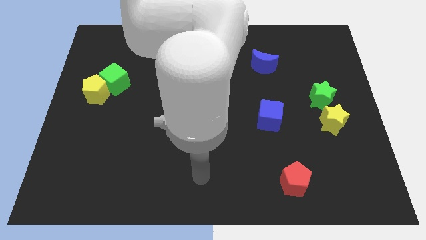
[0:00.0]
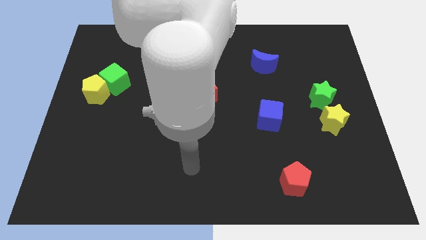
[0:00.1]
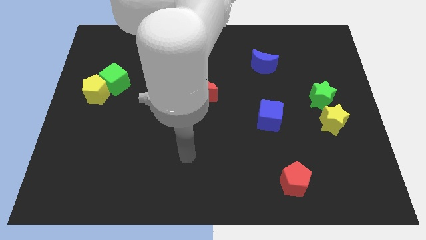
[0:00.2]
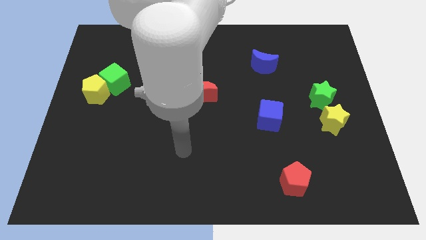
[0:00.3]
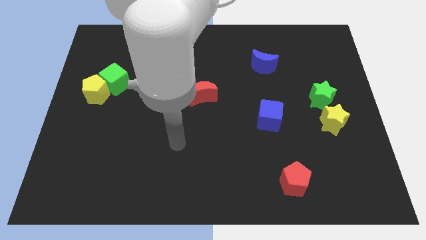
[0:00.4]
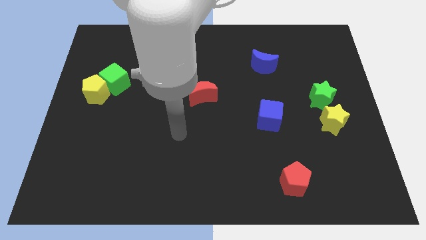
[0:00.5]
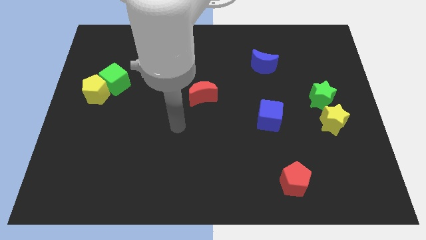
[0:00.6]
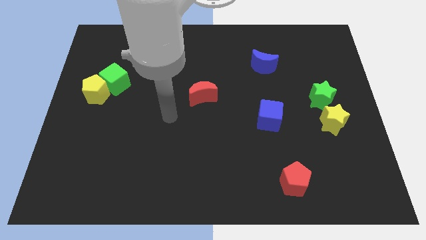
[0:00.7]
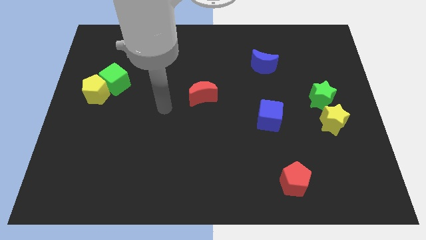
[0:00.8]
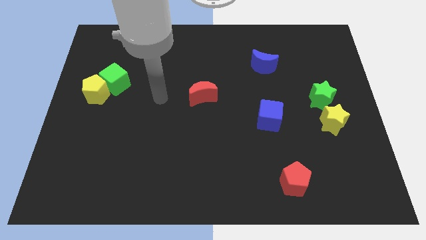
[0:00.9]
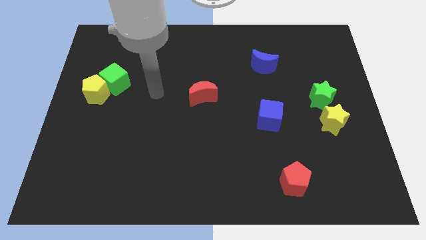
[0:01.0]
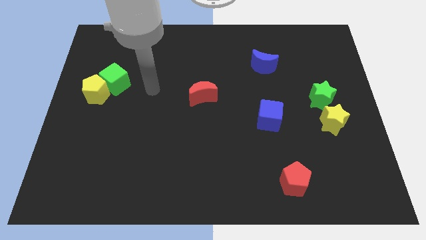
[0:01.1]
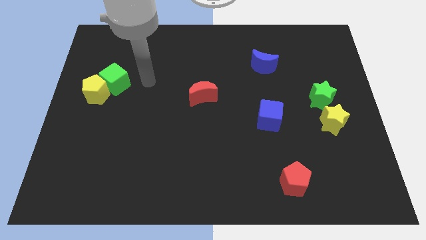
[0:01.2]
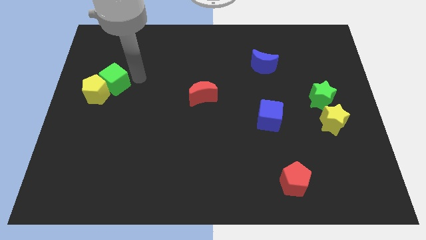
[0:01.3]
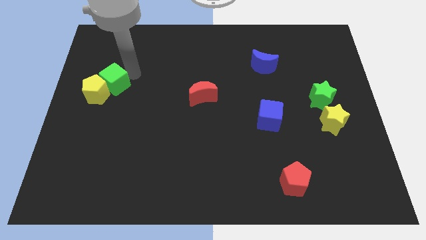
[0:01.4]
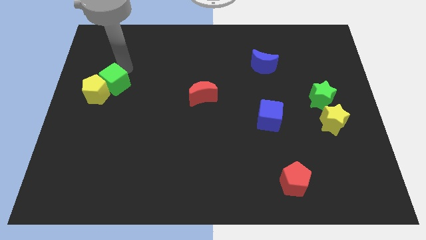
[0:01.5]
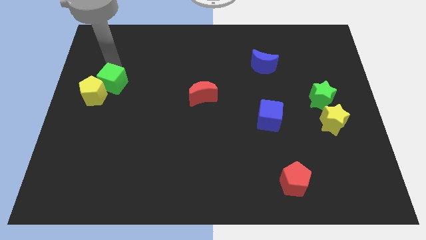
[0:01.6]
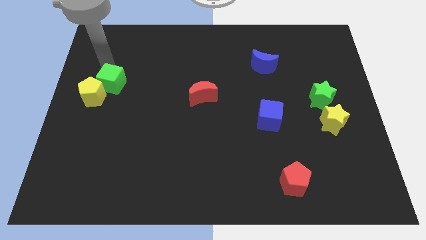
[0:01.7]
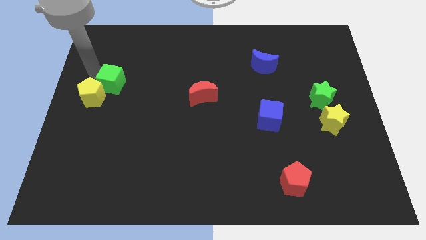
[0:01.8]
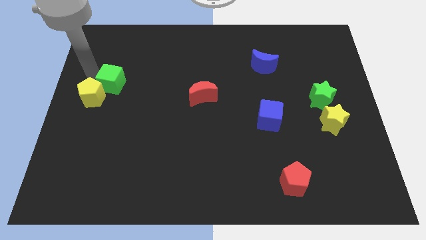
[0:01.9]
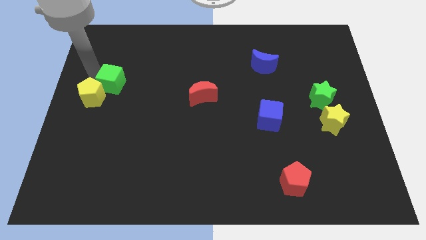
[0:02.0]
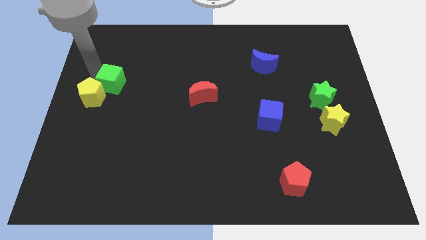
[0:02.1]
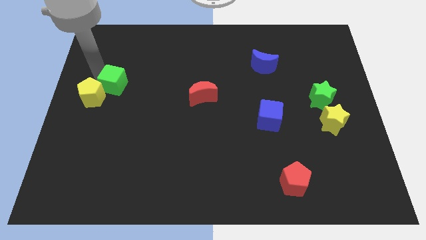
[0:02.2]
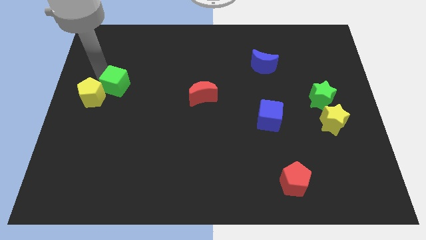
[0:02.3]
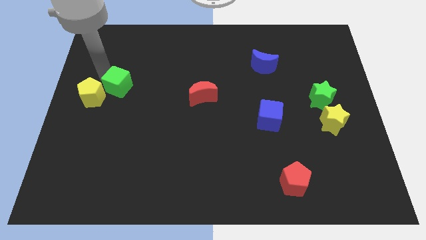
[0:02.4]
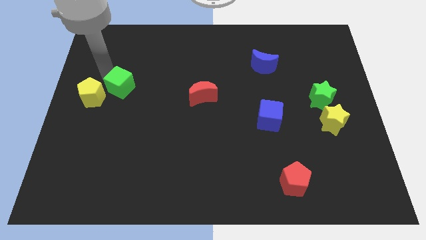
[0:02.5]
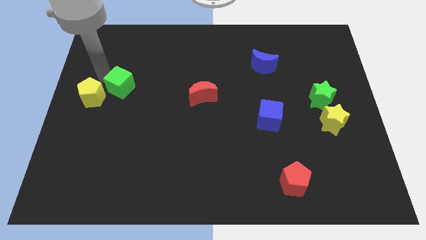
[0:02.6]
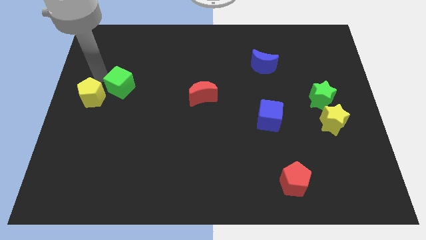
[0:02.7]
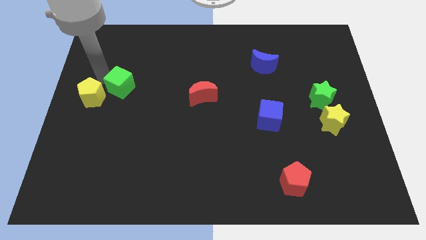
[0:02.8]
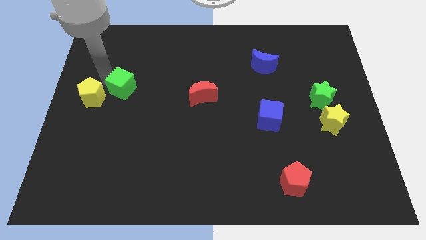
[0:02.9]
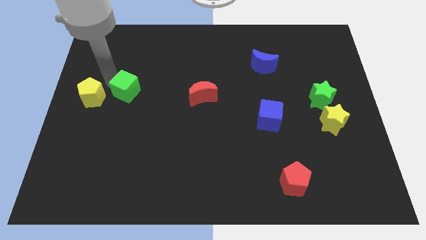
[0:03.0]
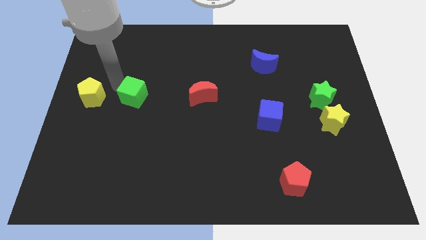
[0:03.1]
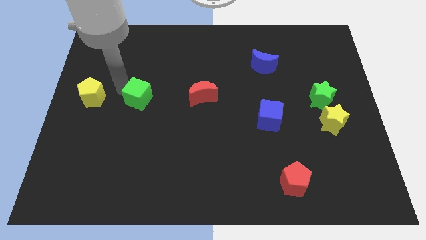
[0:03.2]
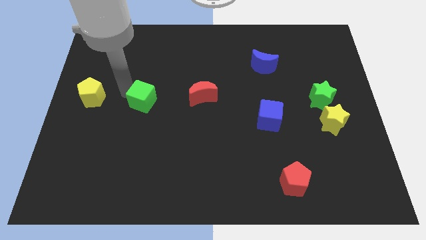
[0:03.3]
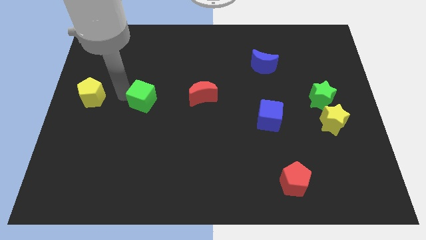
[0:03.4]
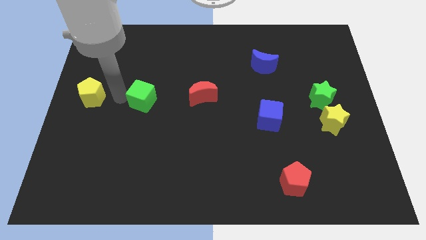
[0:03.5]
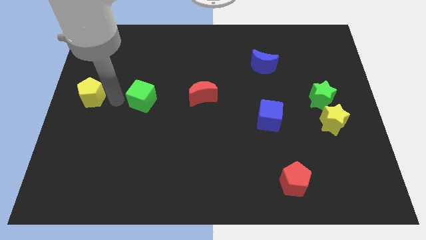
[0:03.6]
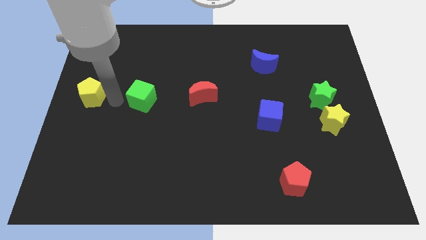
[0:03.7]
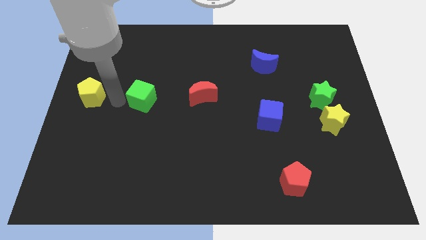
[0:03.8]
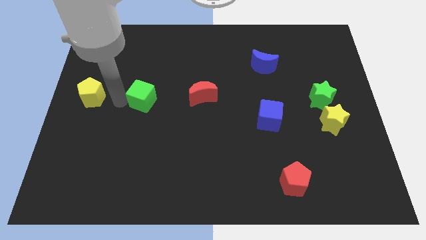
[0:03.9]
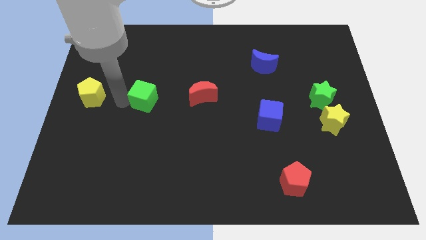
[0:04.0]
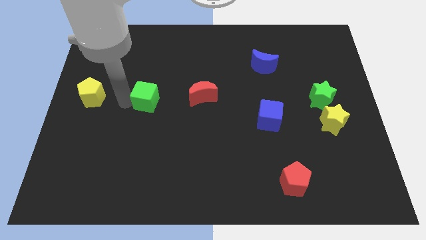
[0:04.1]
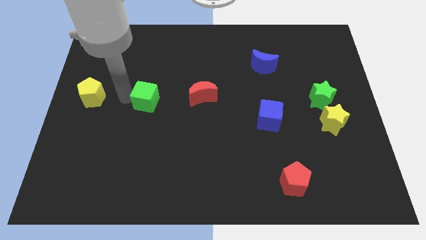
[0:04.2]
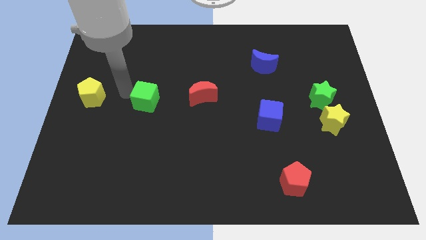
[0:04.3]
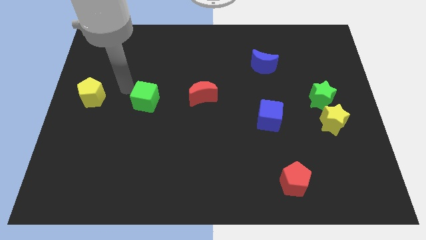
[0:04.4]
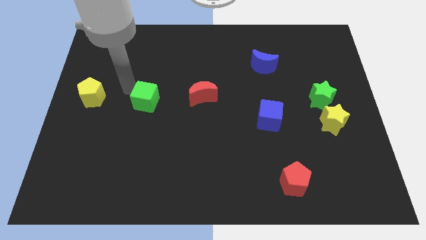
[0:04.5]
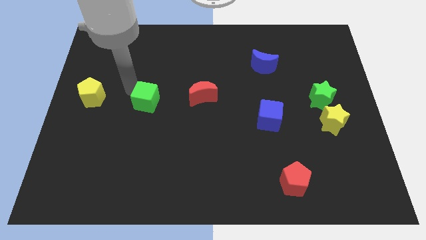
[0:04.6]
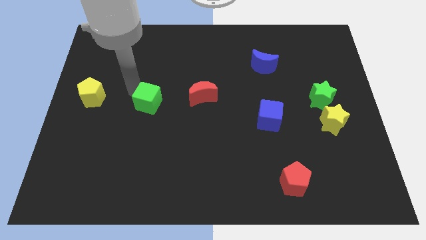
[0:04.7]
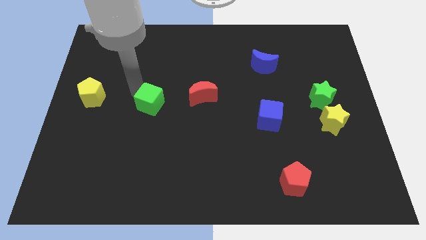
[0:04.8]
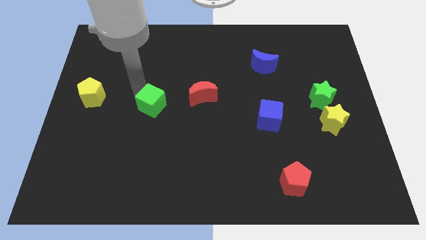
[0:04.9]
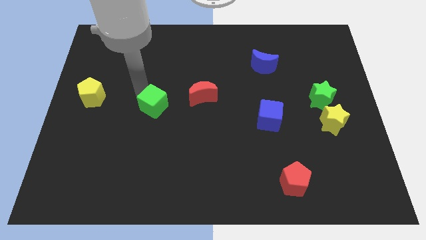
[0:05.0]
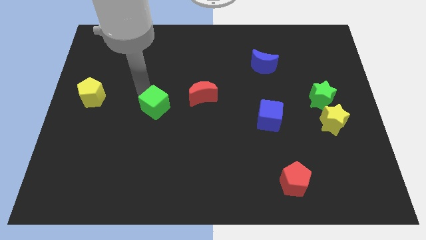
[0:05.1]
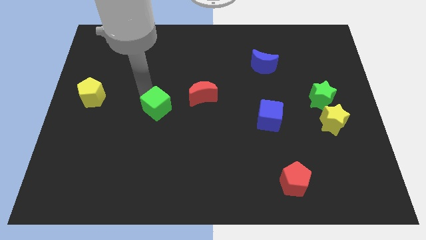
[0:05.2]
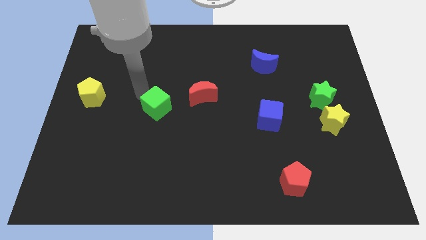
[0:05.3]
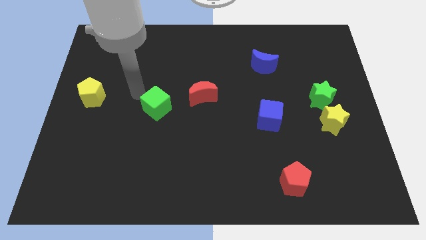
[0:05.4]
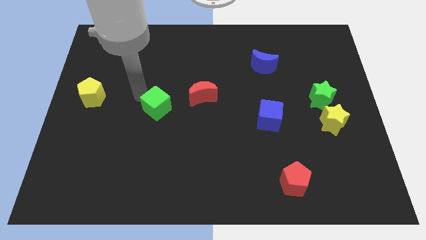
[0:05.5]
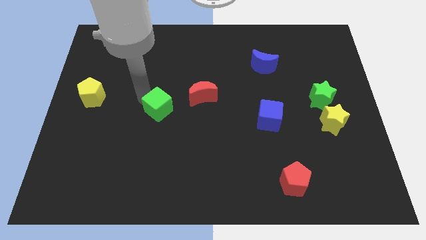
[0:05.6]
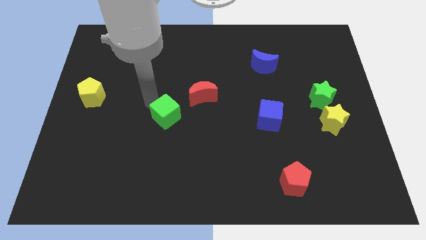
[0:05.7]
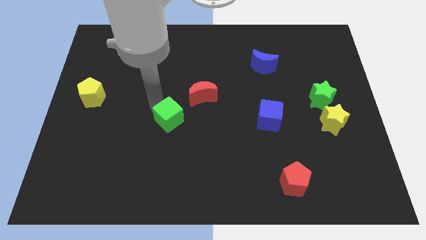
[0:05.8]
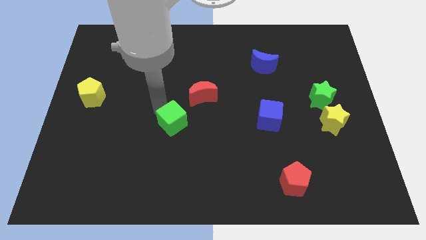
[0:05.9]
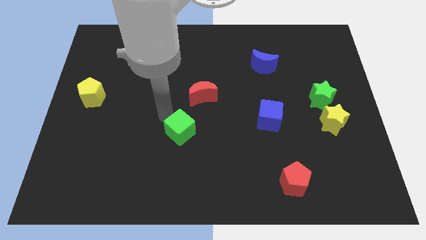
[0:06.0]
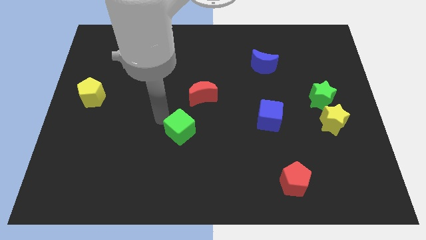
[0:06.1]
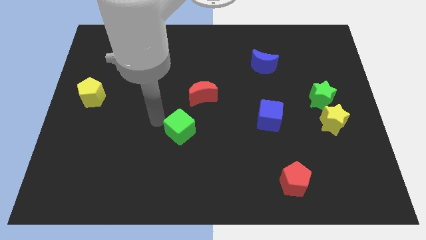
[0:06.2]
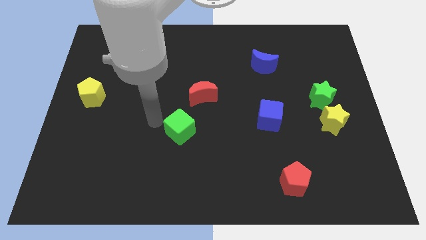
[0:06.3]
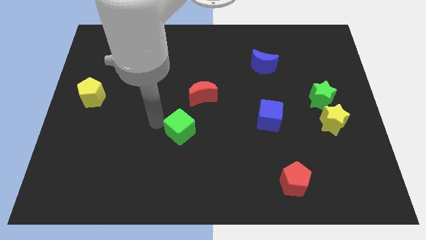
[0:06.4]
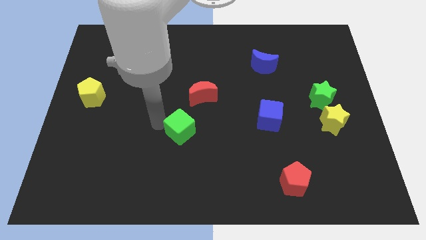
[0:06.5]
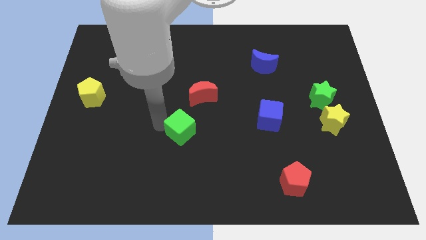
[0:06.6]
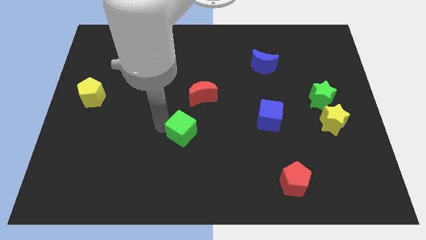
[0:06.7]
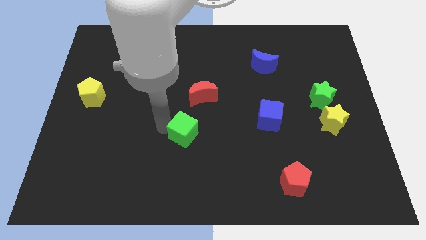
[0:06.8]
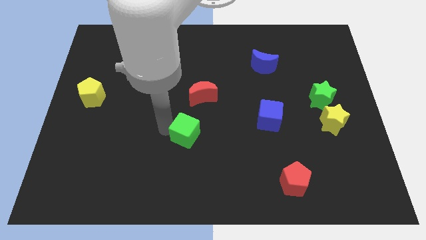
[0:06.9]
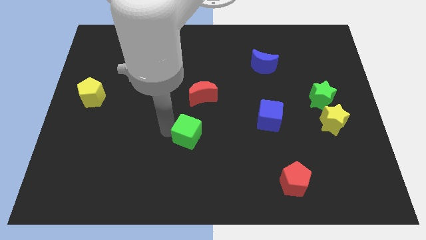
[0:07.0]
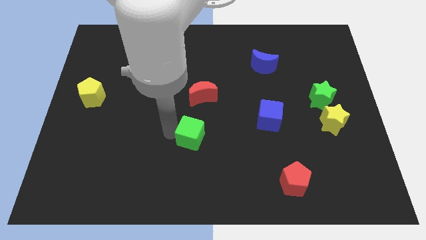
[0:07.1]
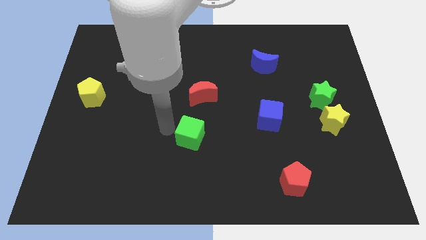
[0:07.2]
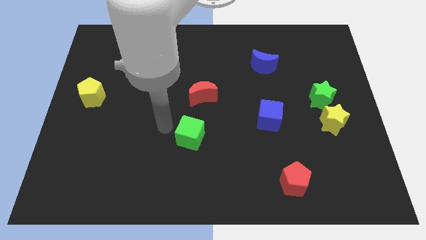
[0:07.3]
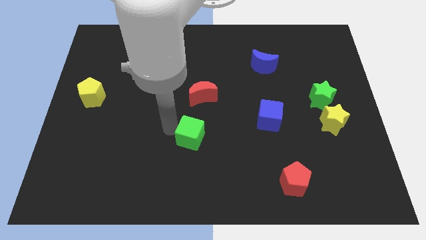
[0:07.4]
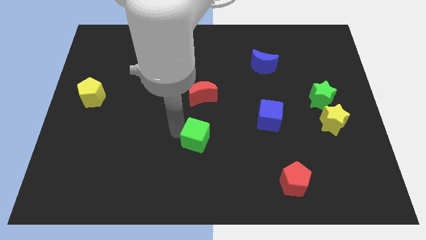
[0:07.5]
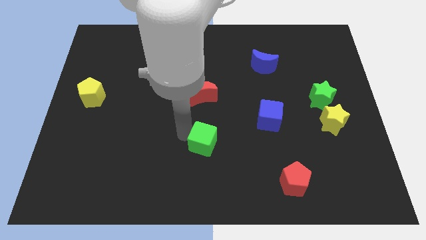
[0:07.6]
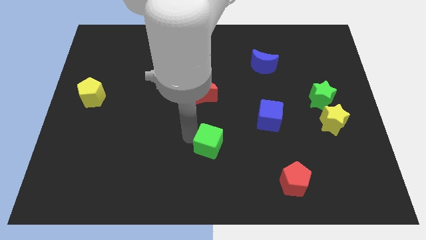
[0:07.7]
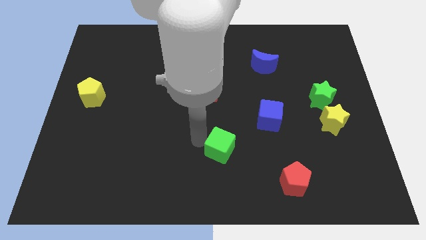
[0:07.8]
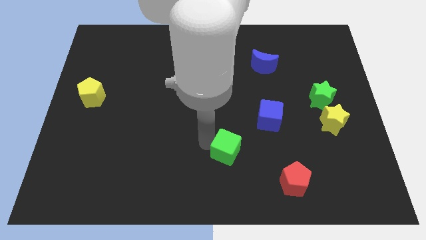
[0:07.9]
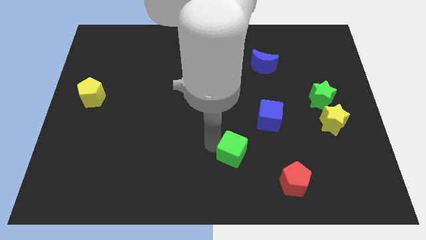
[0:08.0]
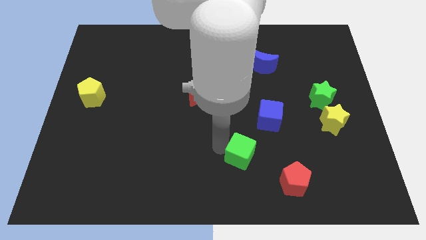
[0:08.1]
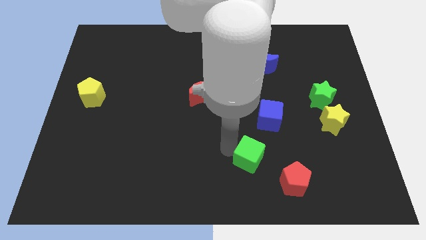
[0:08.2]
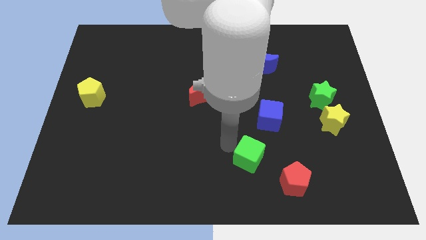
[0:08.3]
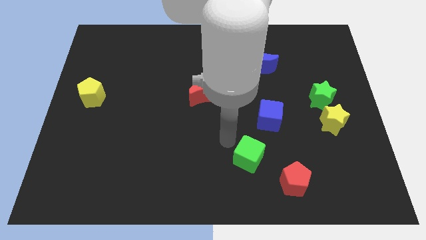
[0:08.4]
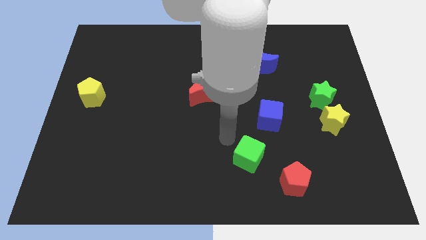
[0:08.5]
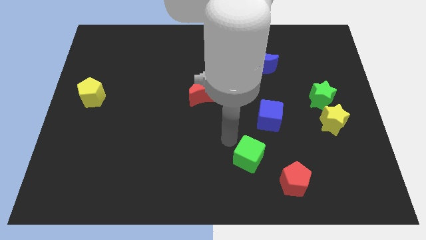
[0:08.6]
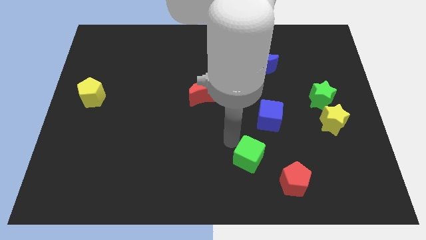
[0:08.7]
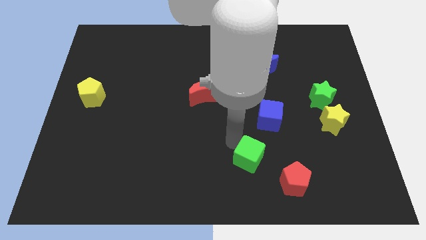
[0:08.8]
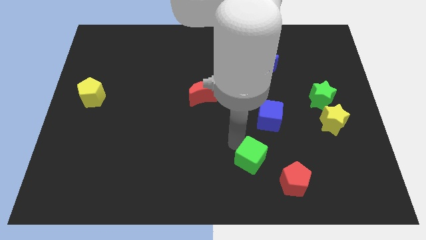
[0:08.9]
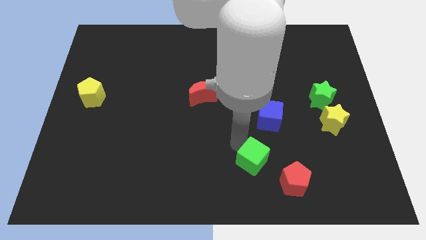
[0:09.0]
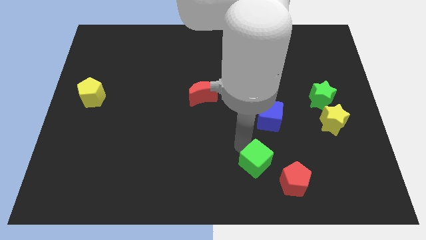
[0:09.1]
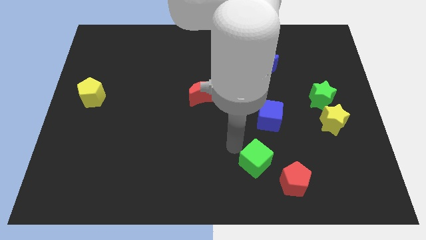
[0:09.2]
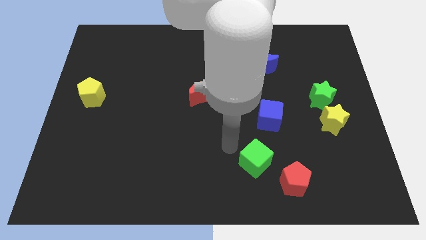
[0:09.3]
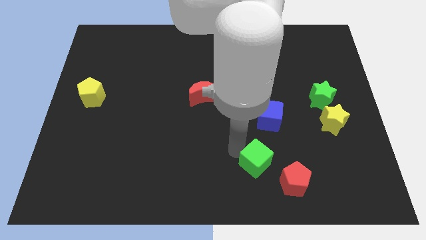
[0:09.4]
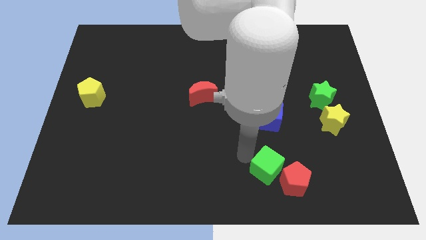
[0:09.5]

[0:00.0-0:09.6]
slide the green cube to the red pentagon
